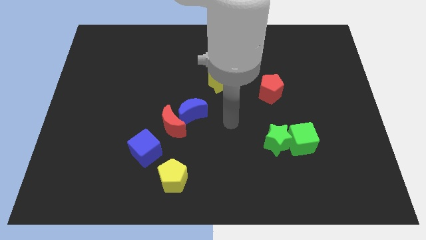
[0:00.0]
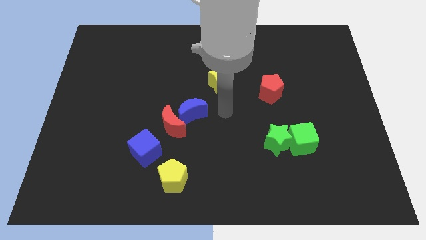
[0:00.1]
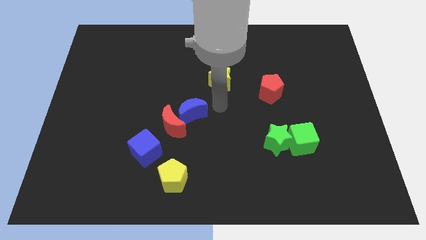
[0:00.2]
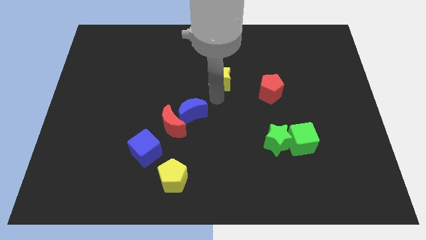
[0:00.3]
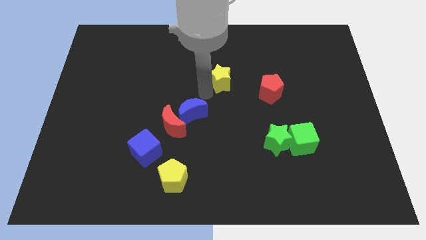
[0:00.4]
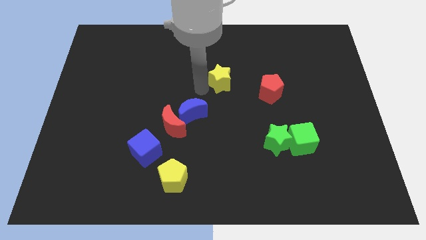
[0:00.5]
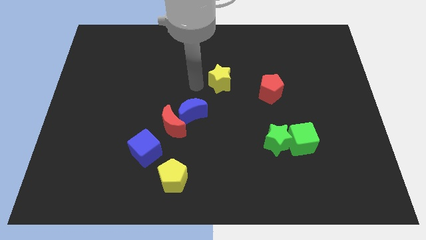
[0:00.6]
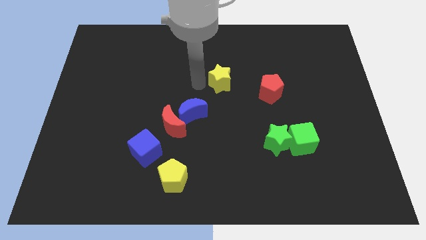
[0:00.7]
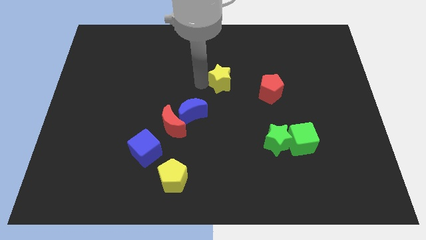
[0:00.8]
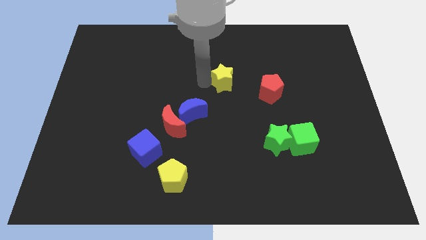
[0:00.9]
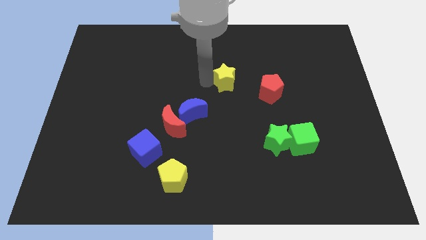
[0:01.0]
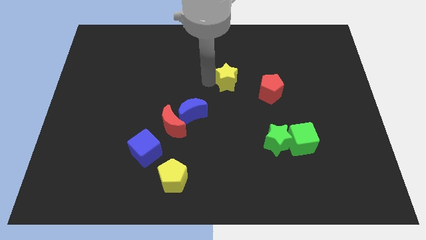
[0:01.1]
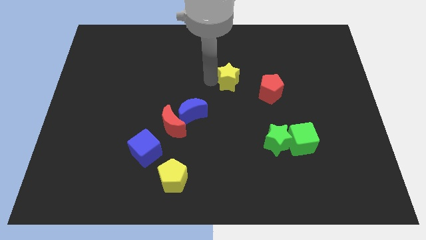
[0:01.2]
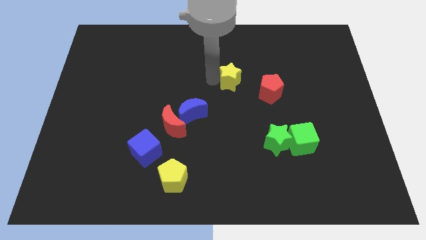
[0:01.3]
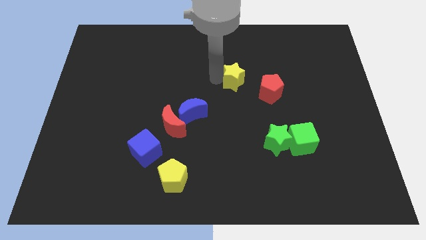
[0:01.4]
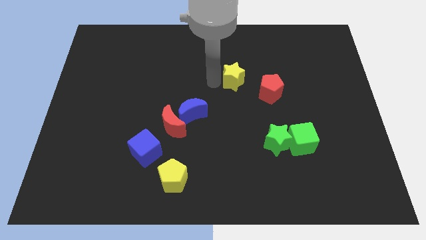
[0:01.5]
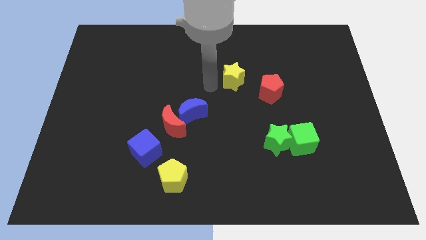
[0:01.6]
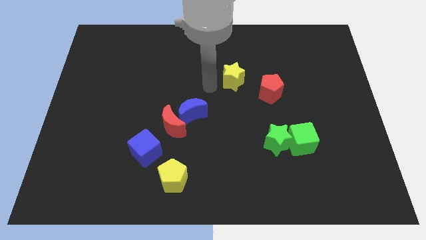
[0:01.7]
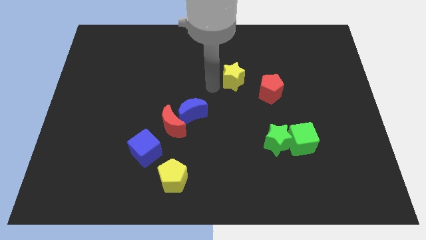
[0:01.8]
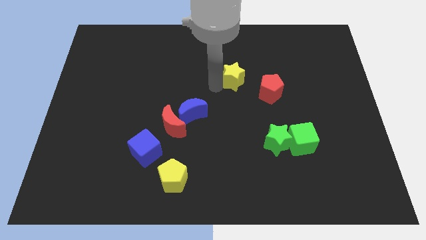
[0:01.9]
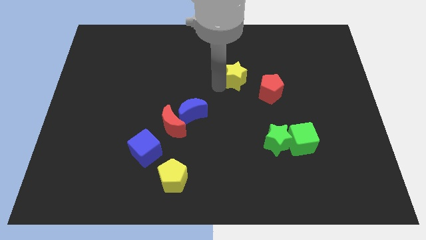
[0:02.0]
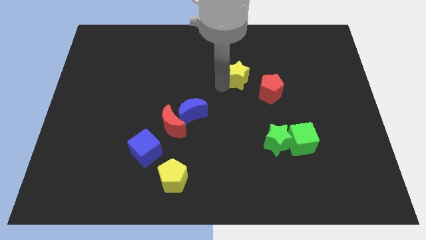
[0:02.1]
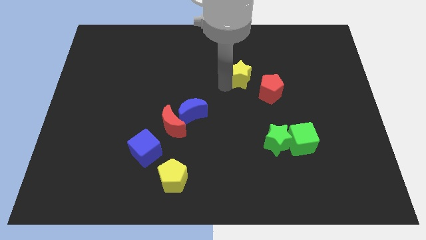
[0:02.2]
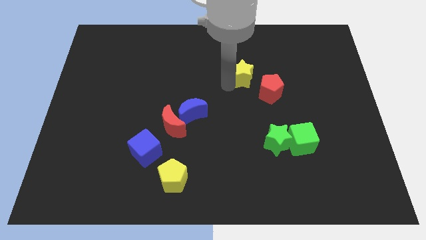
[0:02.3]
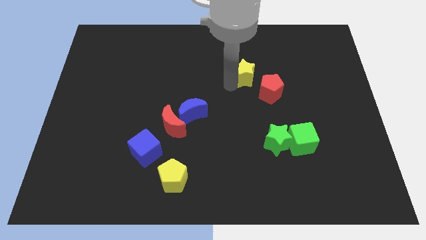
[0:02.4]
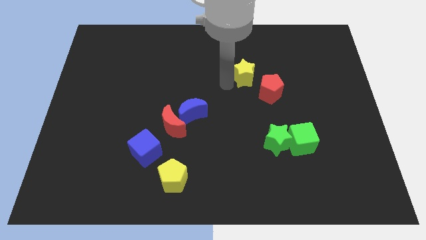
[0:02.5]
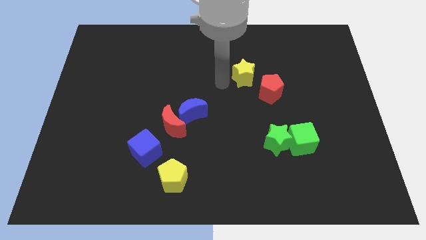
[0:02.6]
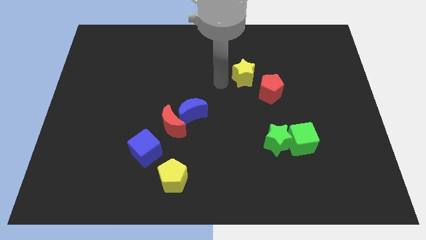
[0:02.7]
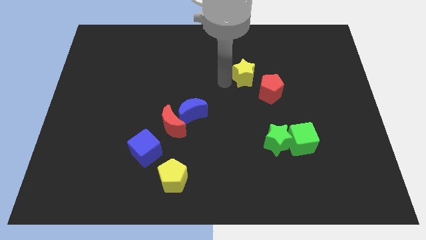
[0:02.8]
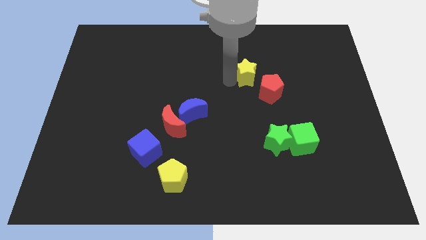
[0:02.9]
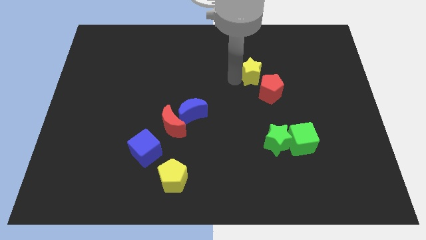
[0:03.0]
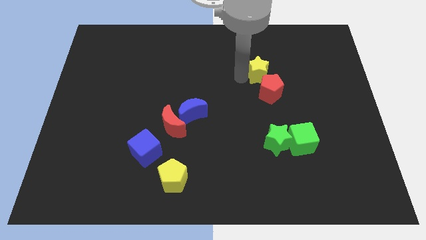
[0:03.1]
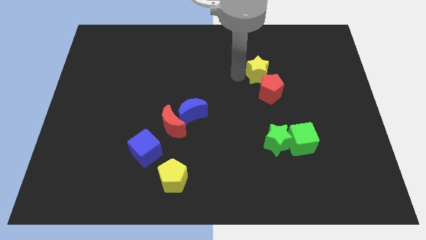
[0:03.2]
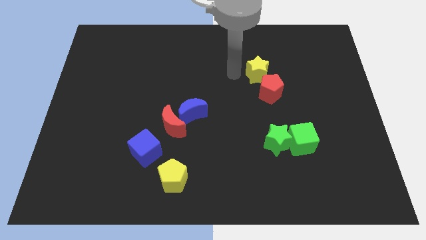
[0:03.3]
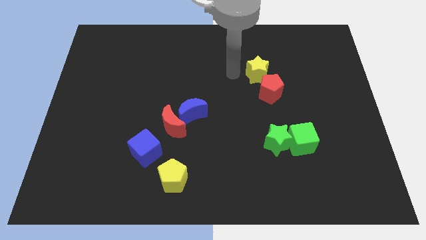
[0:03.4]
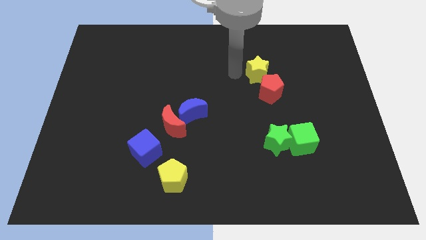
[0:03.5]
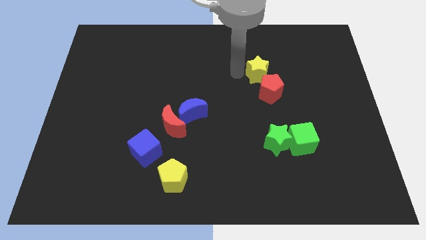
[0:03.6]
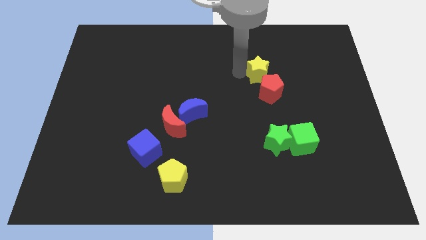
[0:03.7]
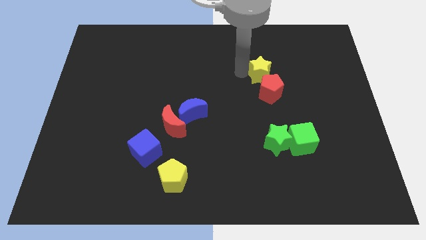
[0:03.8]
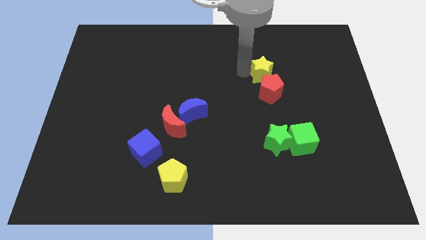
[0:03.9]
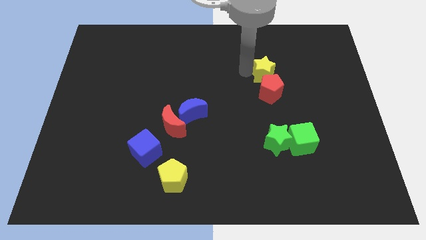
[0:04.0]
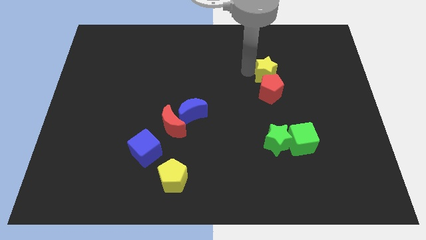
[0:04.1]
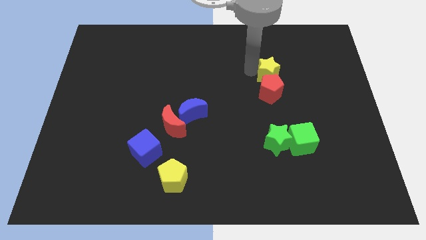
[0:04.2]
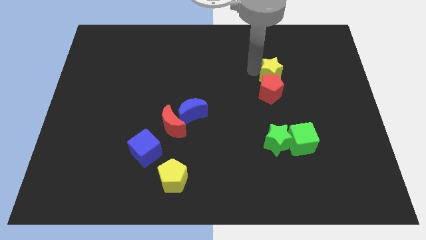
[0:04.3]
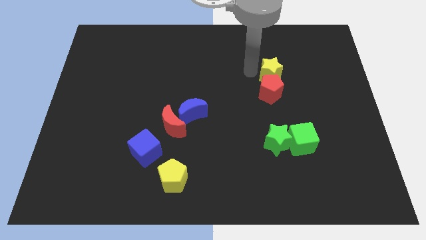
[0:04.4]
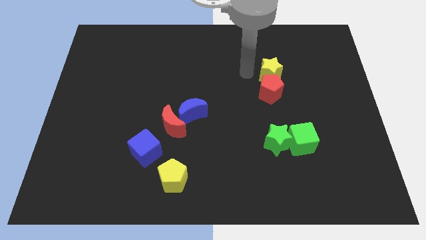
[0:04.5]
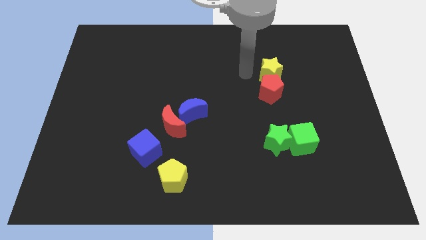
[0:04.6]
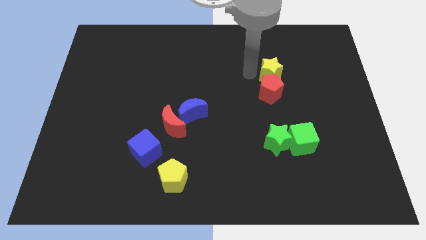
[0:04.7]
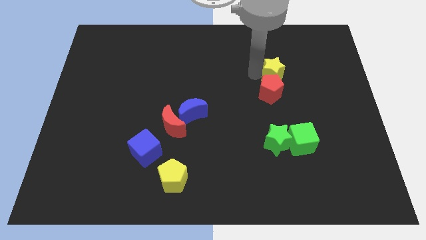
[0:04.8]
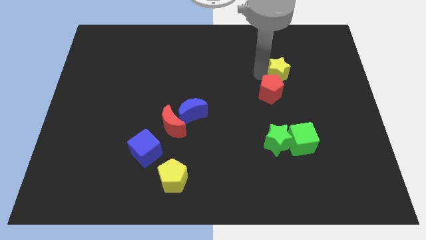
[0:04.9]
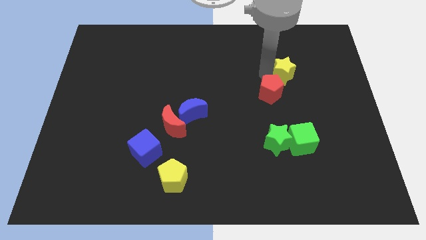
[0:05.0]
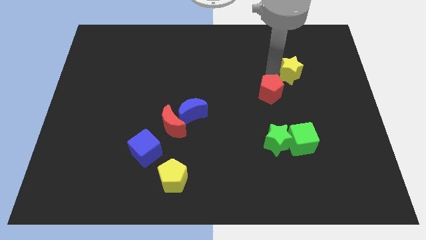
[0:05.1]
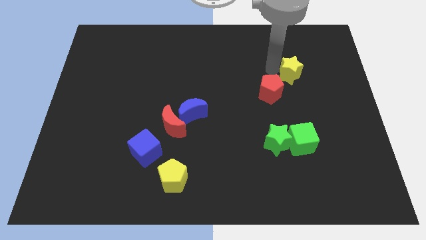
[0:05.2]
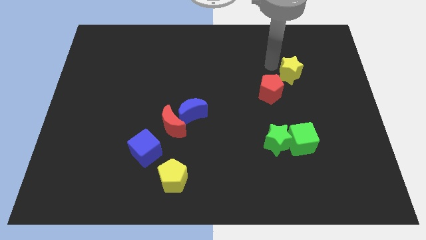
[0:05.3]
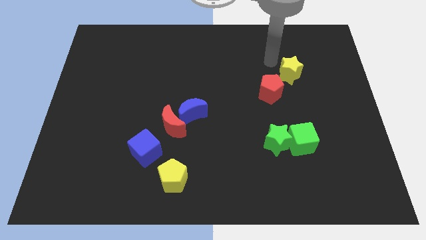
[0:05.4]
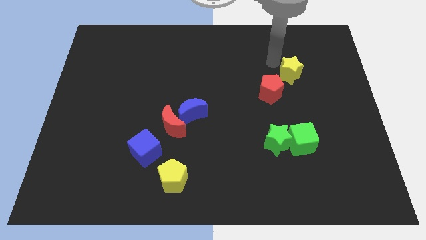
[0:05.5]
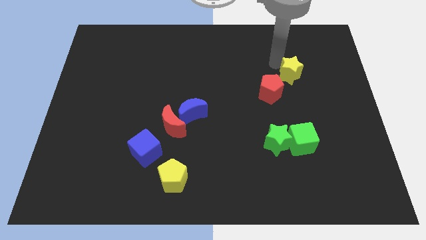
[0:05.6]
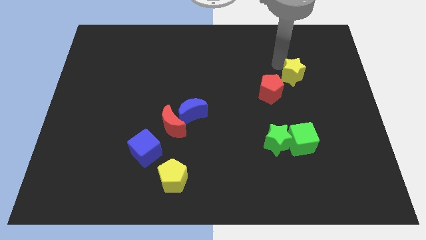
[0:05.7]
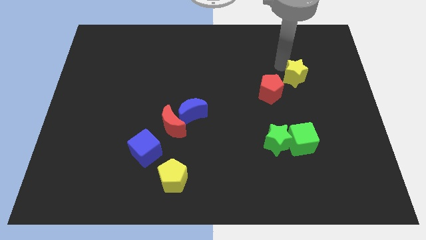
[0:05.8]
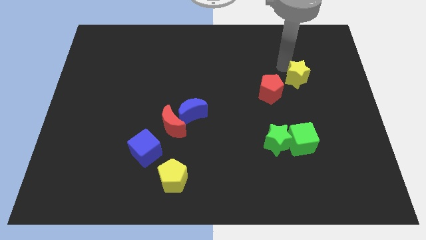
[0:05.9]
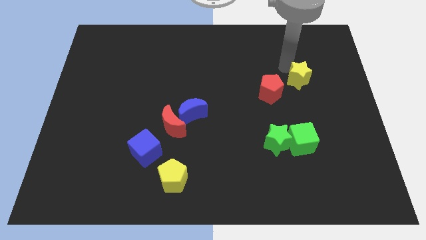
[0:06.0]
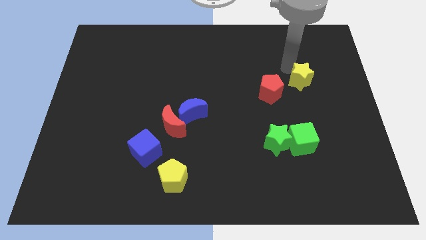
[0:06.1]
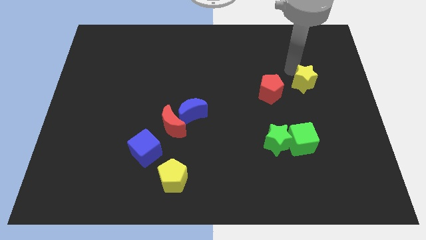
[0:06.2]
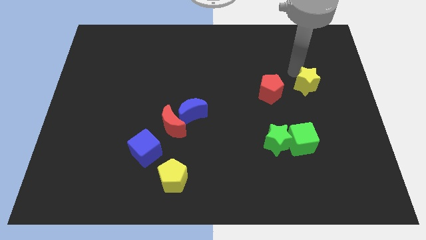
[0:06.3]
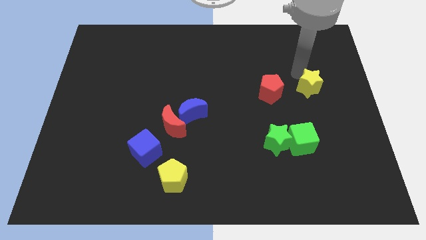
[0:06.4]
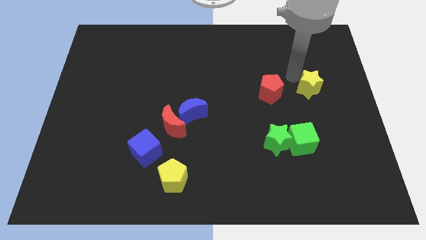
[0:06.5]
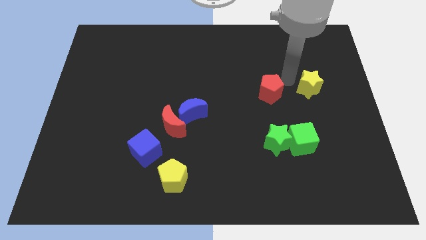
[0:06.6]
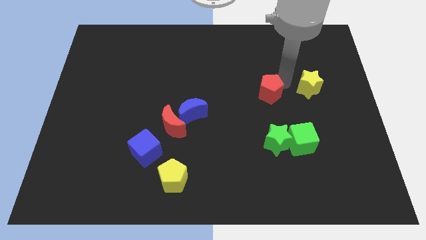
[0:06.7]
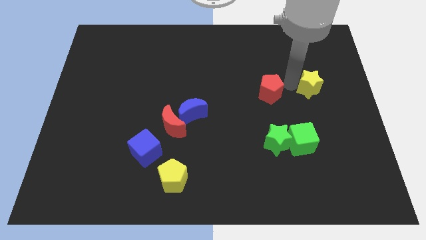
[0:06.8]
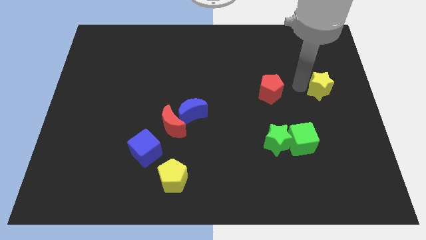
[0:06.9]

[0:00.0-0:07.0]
put the yellow star to the right side
